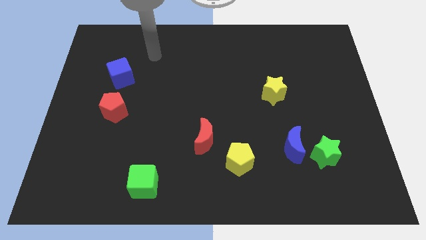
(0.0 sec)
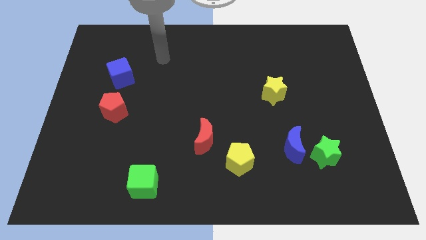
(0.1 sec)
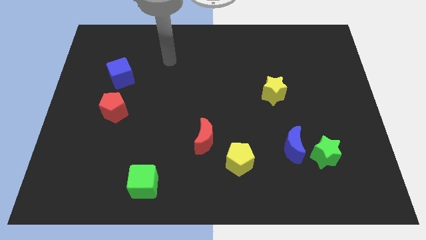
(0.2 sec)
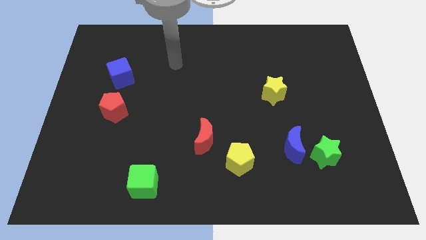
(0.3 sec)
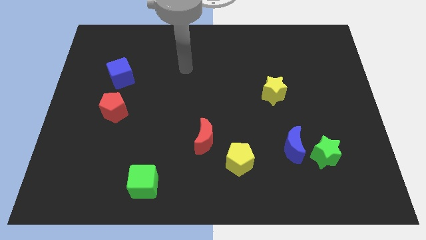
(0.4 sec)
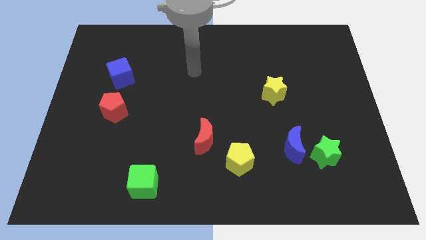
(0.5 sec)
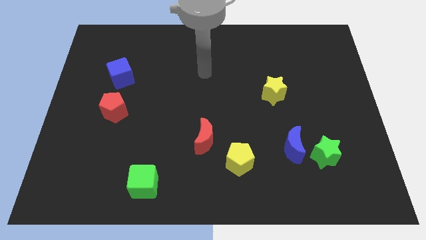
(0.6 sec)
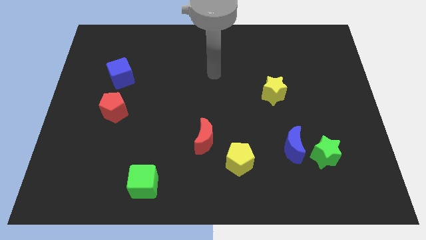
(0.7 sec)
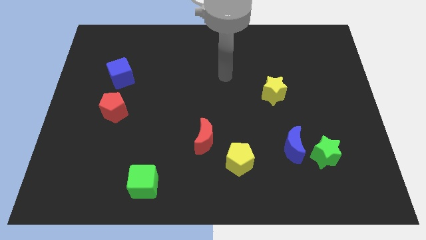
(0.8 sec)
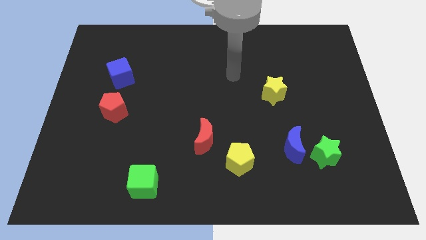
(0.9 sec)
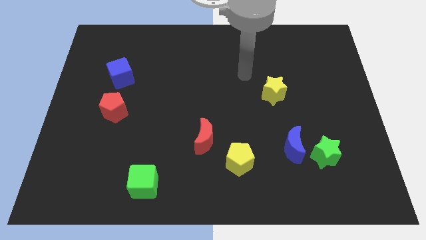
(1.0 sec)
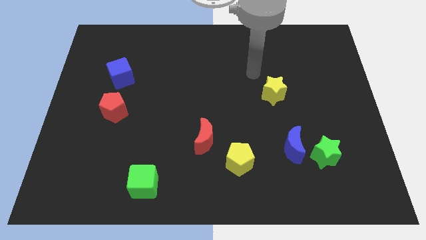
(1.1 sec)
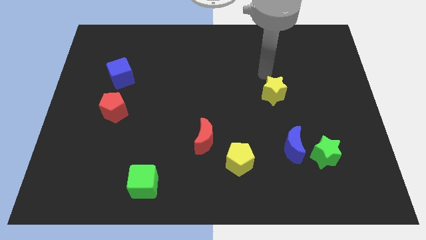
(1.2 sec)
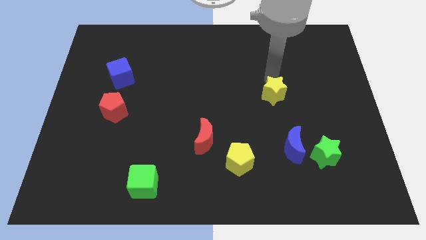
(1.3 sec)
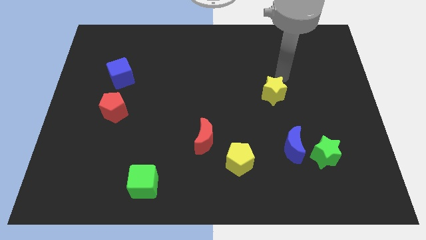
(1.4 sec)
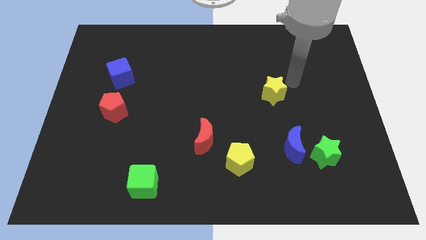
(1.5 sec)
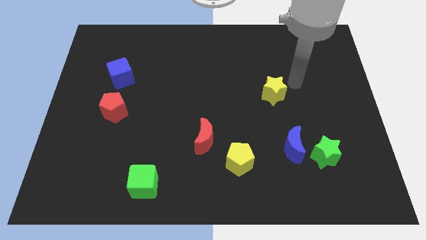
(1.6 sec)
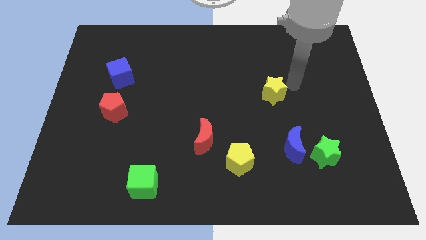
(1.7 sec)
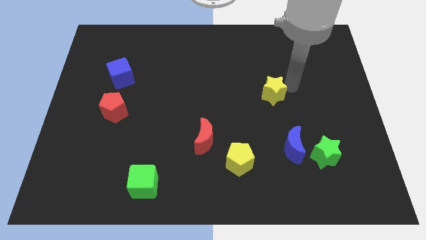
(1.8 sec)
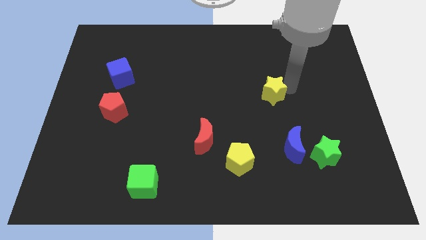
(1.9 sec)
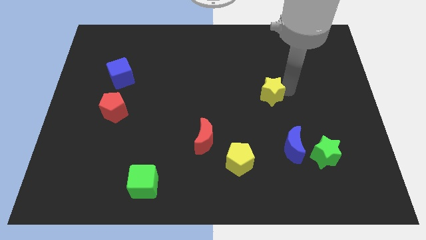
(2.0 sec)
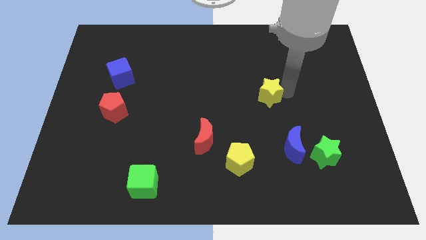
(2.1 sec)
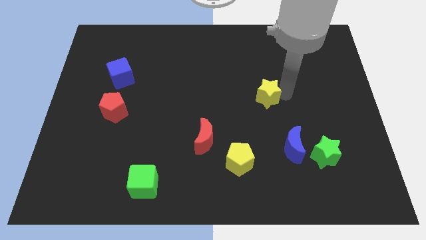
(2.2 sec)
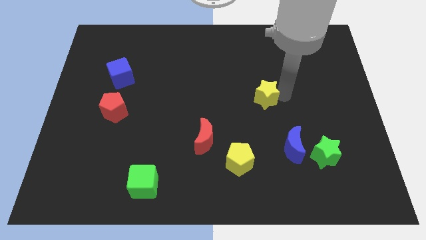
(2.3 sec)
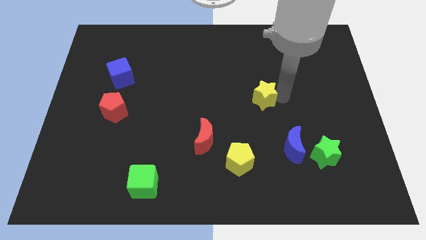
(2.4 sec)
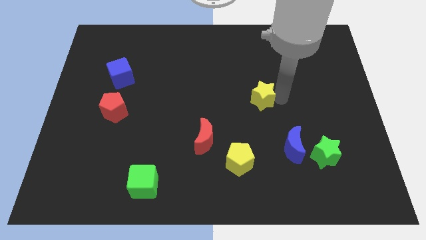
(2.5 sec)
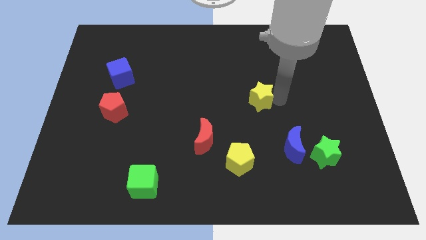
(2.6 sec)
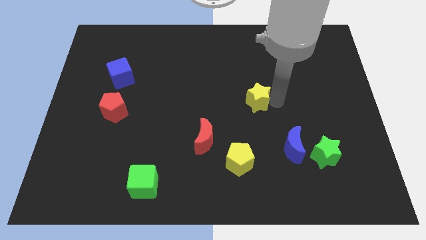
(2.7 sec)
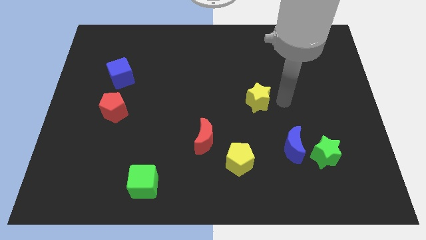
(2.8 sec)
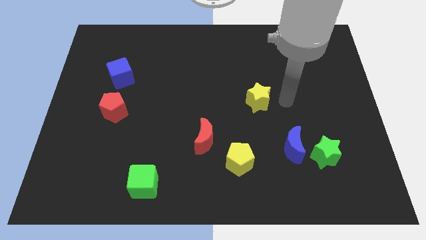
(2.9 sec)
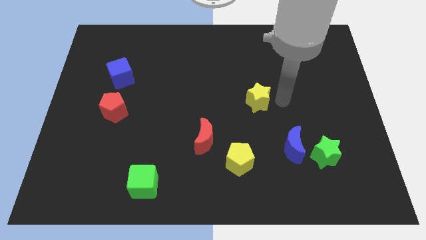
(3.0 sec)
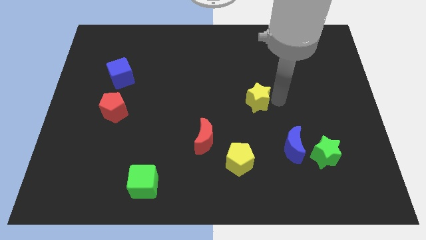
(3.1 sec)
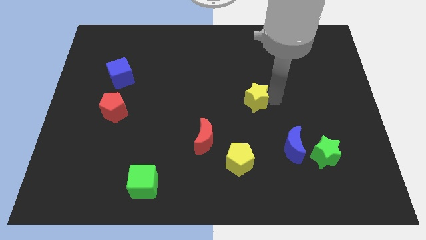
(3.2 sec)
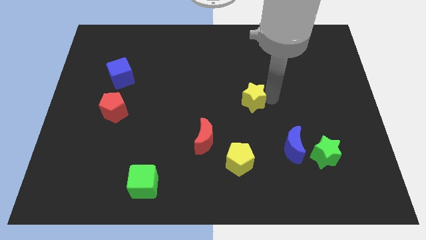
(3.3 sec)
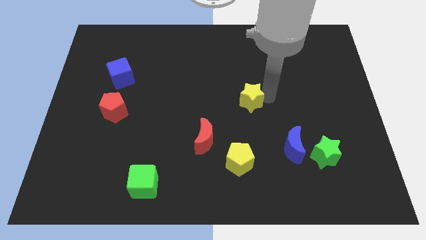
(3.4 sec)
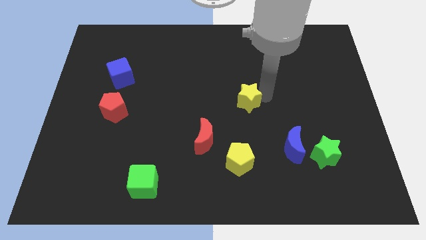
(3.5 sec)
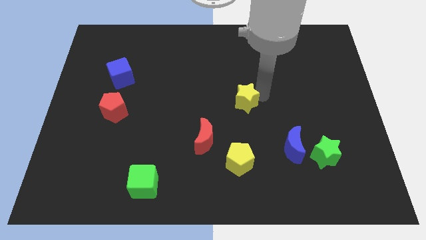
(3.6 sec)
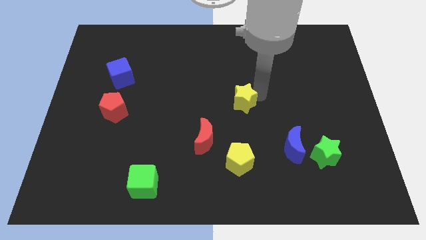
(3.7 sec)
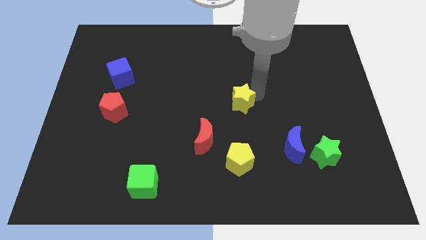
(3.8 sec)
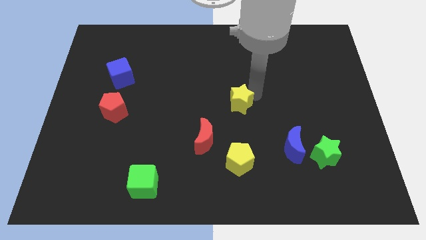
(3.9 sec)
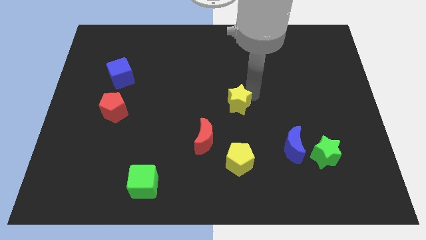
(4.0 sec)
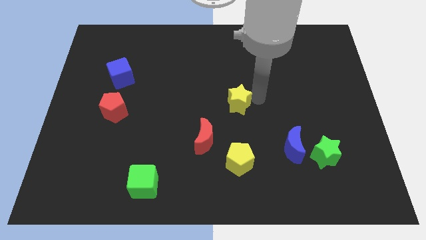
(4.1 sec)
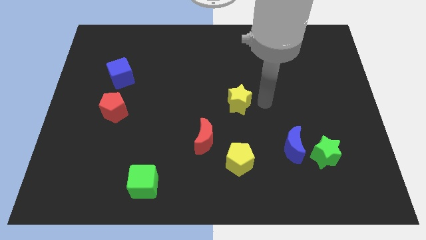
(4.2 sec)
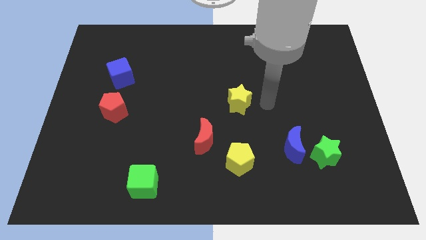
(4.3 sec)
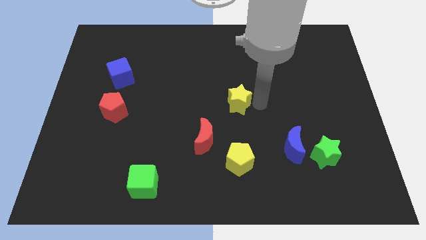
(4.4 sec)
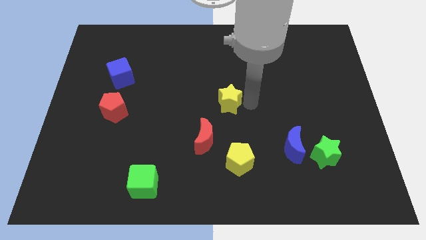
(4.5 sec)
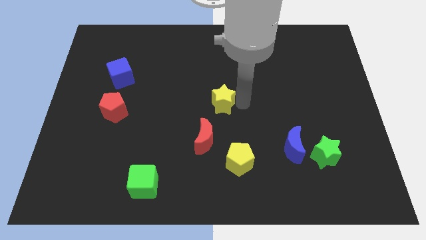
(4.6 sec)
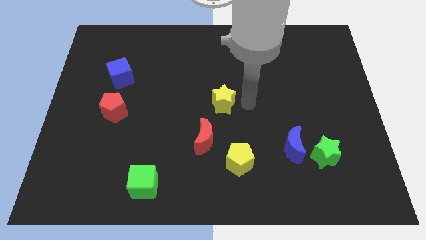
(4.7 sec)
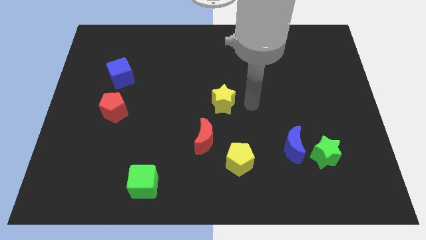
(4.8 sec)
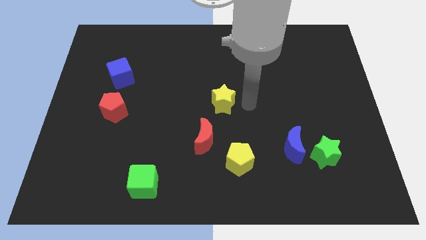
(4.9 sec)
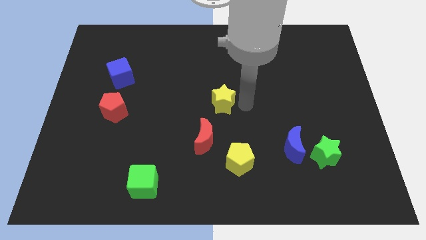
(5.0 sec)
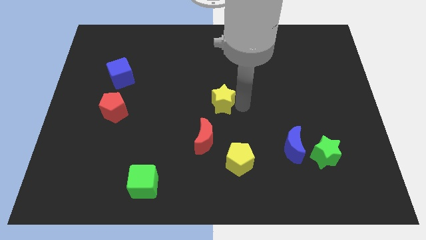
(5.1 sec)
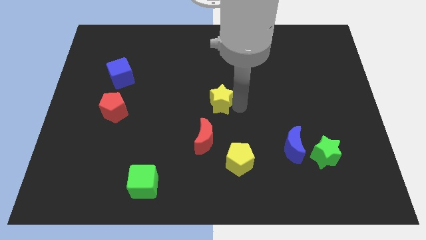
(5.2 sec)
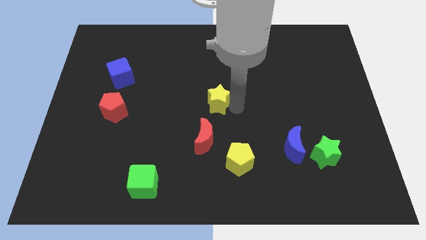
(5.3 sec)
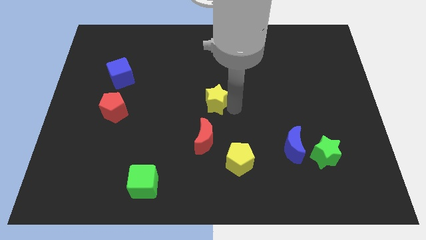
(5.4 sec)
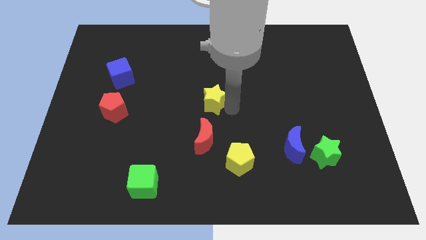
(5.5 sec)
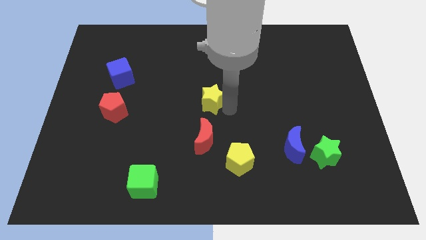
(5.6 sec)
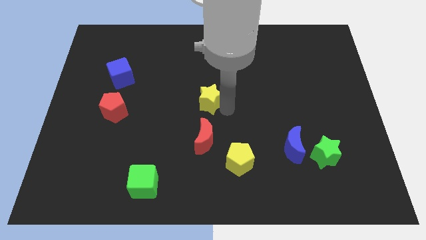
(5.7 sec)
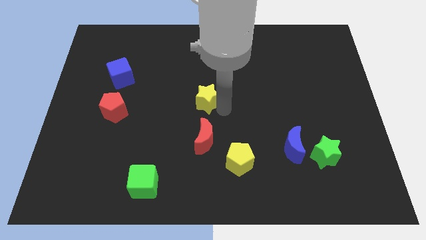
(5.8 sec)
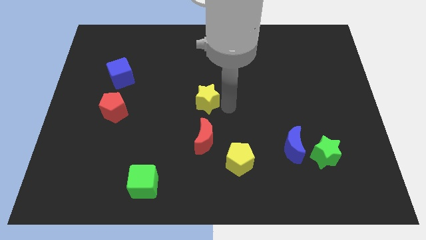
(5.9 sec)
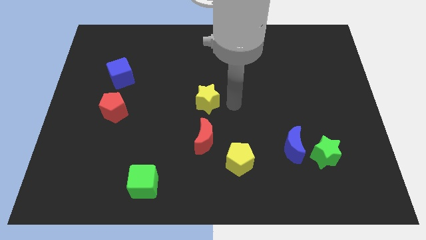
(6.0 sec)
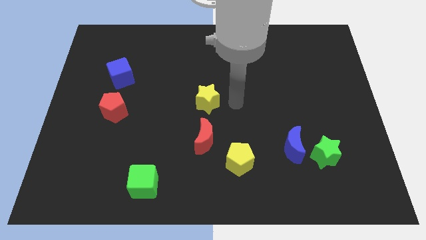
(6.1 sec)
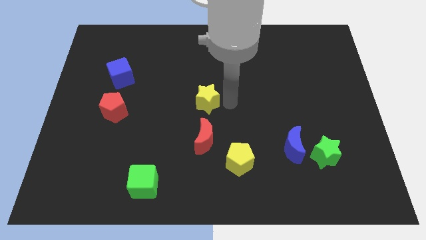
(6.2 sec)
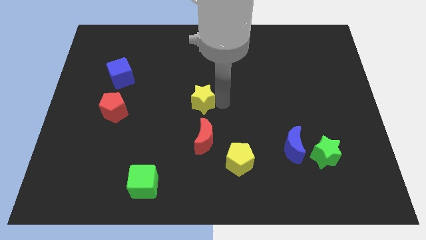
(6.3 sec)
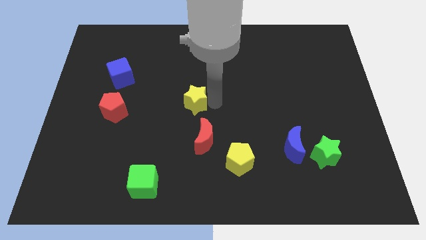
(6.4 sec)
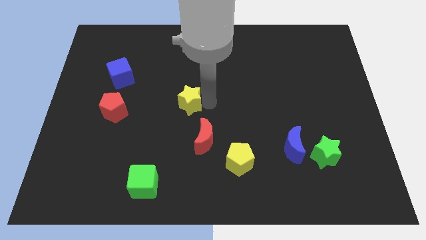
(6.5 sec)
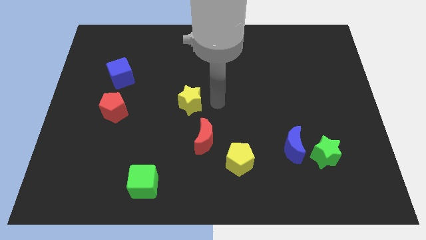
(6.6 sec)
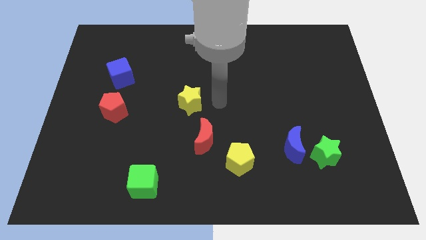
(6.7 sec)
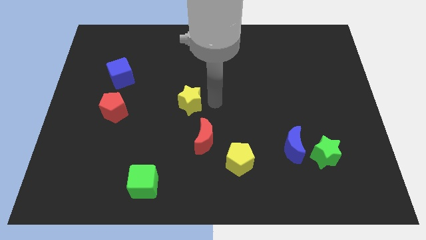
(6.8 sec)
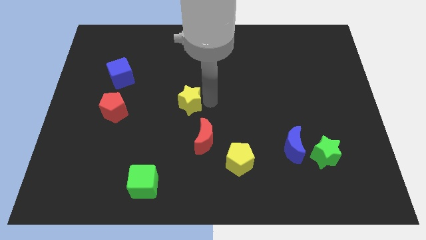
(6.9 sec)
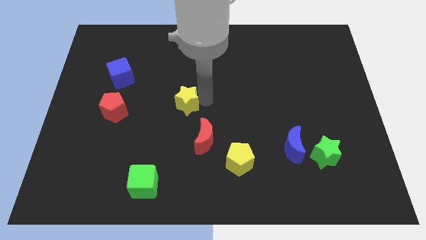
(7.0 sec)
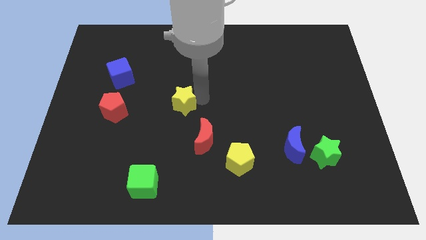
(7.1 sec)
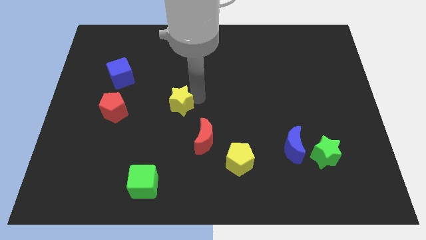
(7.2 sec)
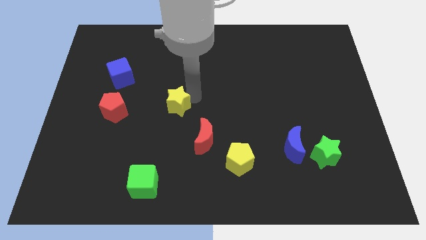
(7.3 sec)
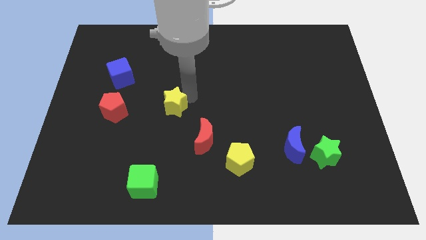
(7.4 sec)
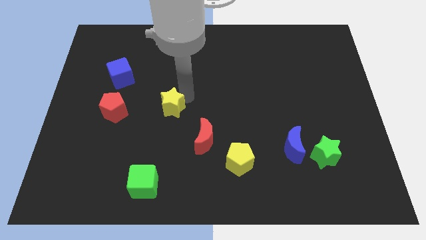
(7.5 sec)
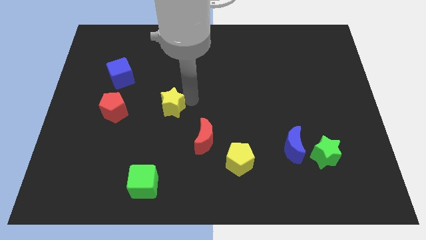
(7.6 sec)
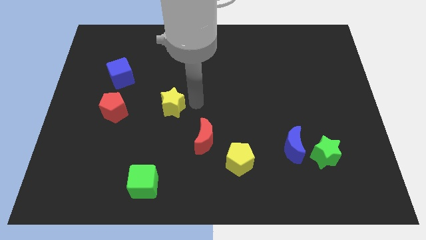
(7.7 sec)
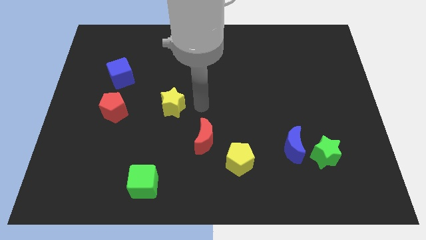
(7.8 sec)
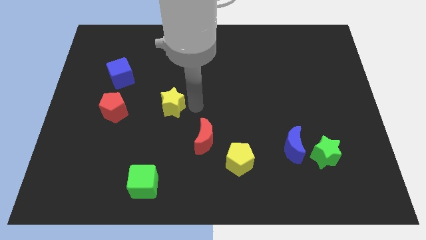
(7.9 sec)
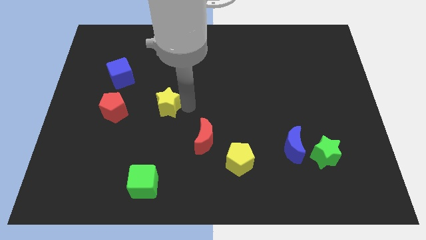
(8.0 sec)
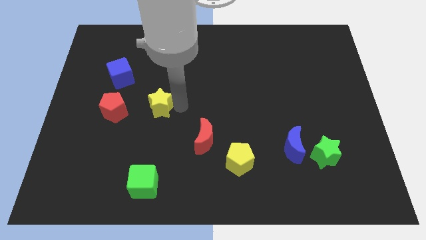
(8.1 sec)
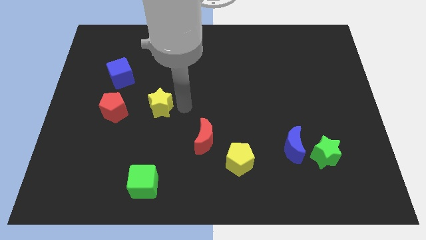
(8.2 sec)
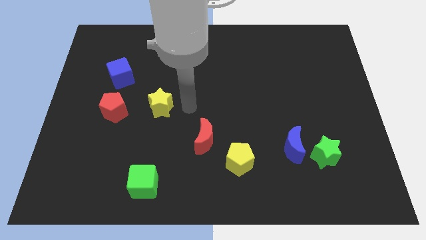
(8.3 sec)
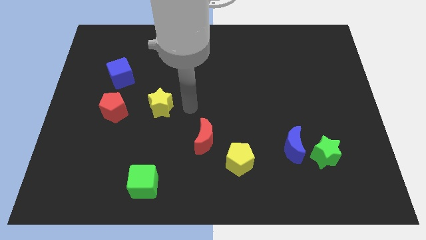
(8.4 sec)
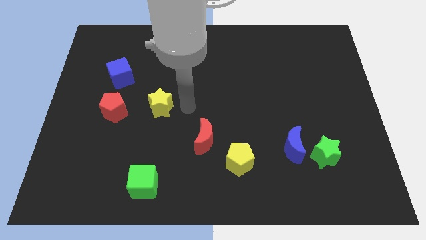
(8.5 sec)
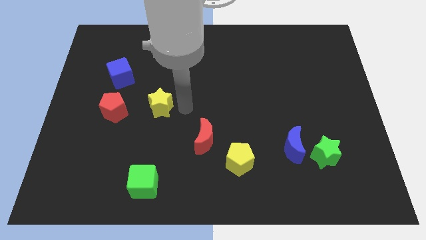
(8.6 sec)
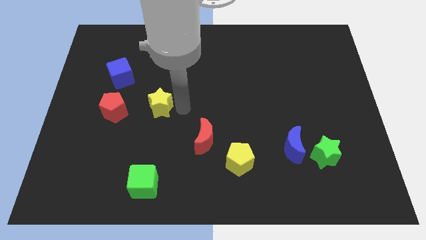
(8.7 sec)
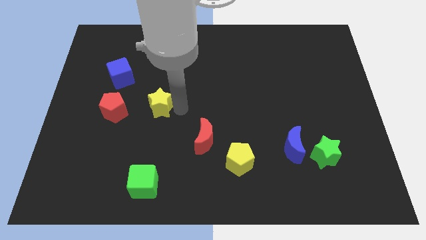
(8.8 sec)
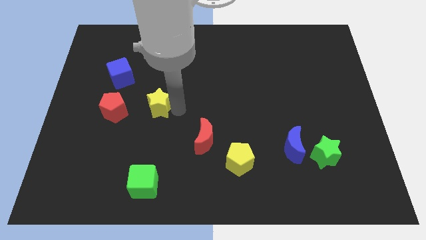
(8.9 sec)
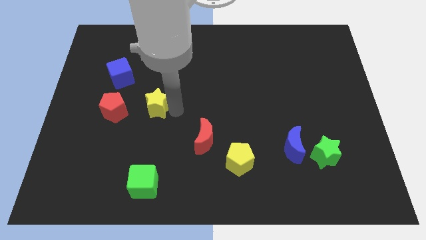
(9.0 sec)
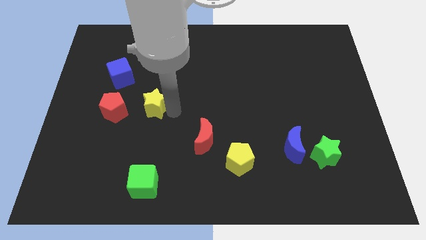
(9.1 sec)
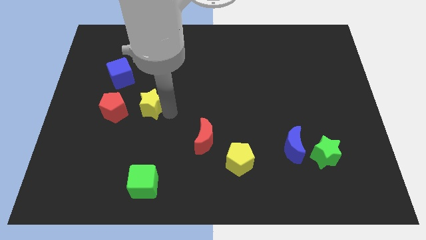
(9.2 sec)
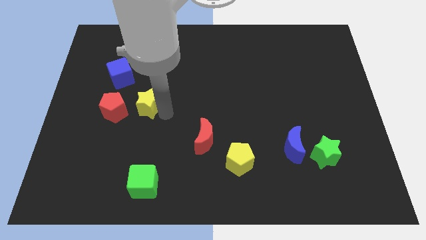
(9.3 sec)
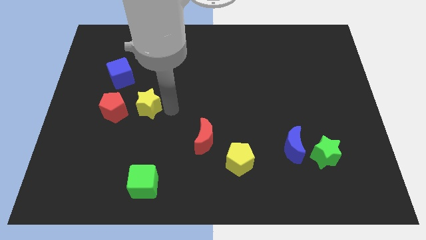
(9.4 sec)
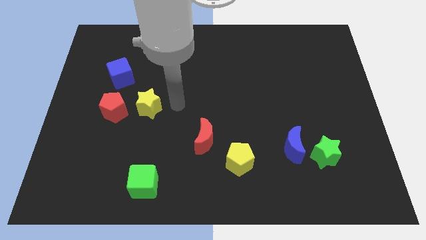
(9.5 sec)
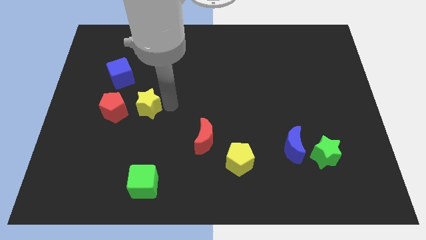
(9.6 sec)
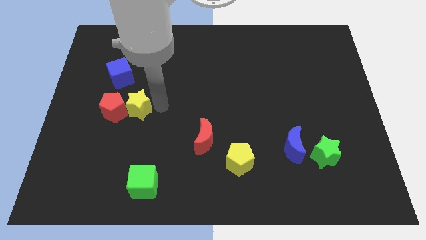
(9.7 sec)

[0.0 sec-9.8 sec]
push the yellow star to the red pentagon
